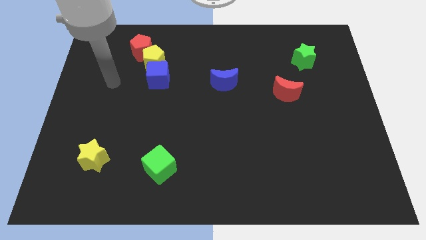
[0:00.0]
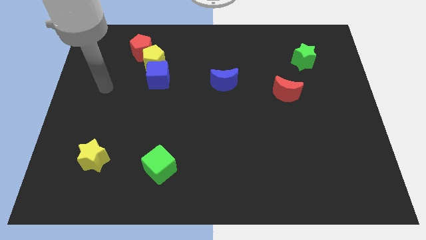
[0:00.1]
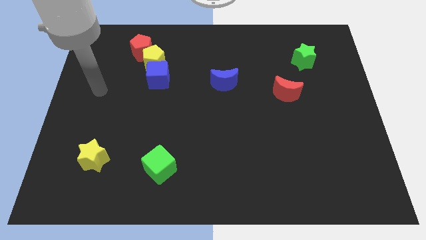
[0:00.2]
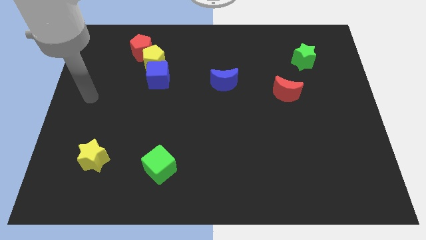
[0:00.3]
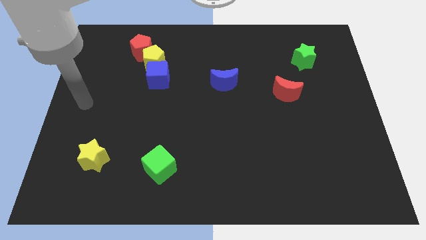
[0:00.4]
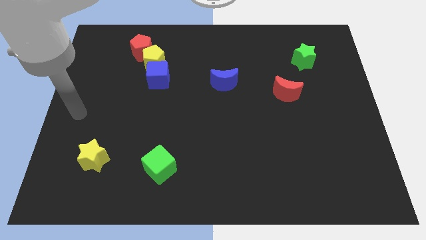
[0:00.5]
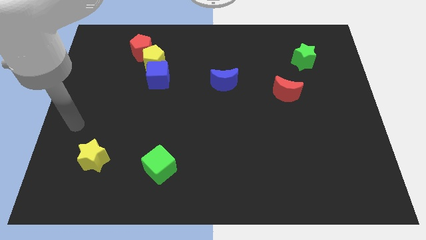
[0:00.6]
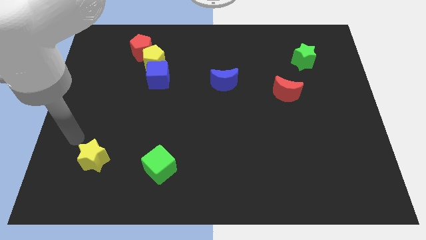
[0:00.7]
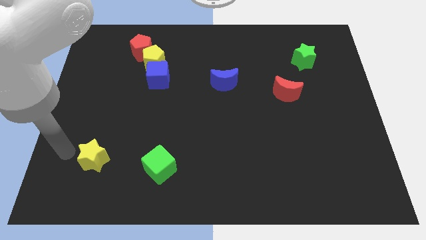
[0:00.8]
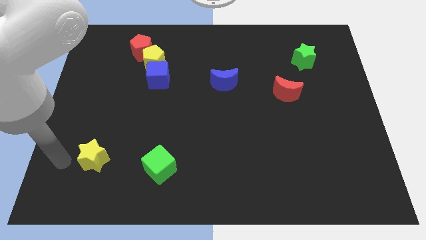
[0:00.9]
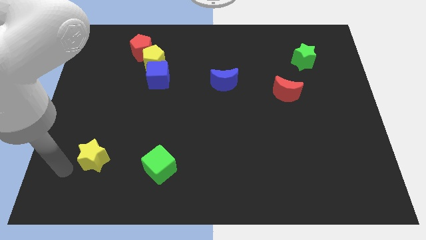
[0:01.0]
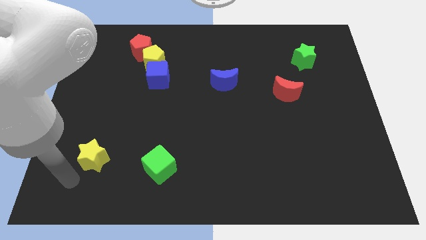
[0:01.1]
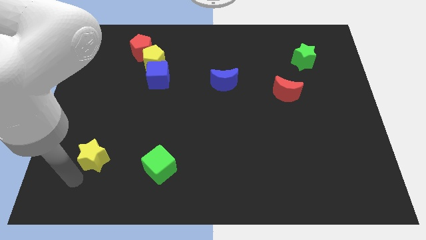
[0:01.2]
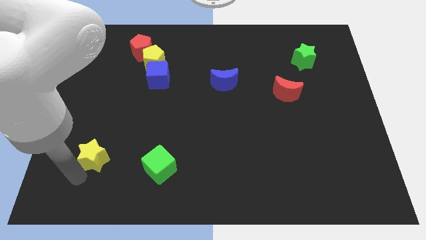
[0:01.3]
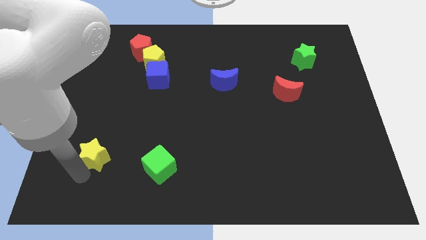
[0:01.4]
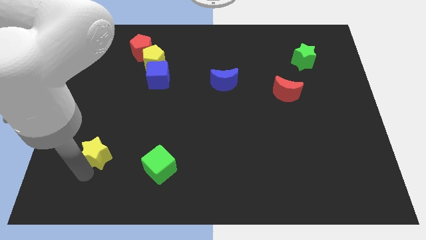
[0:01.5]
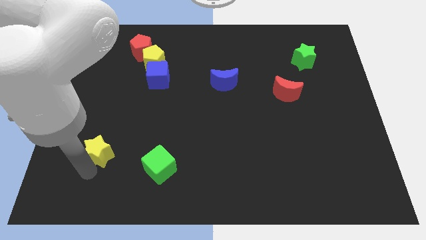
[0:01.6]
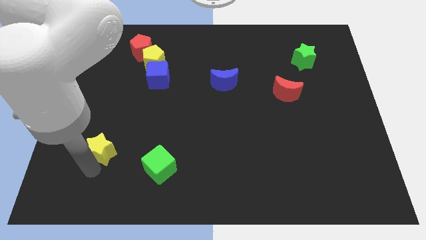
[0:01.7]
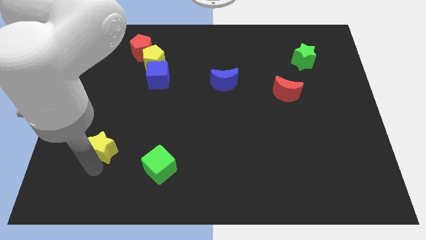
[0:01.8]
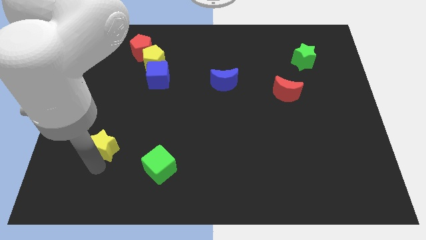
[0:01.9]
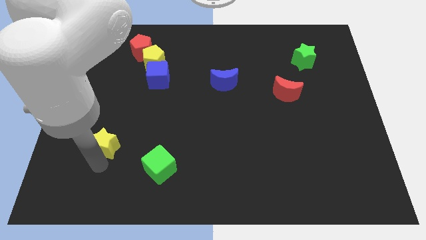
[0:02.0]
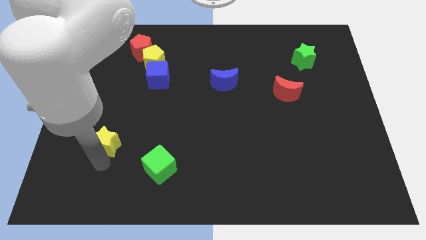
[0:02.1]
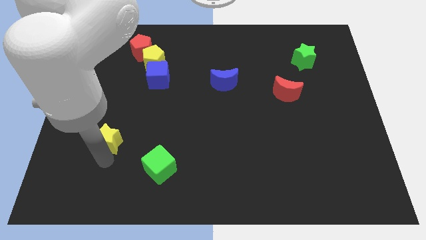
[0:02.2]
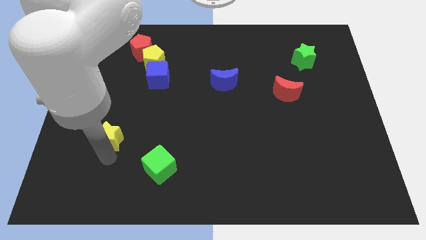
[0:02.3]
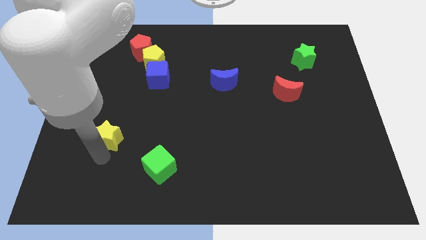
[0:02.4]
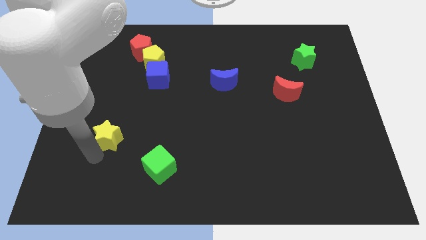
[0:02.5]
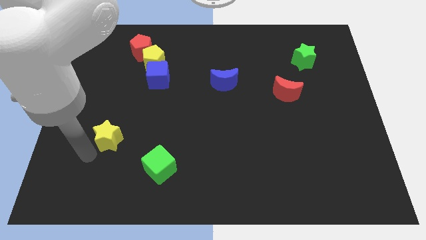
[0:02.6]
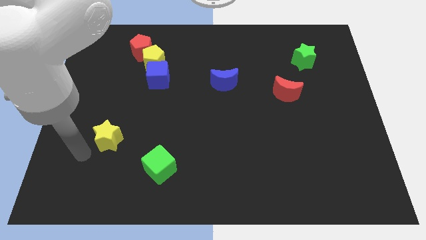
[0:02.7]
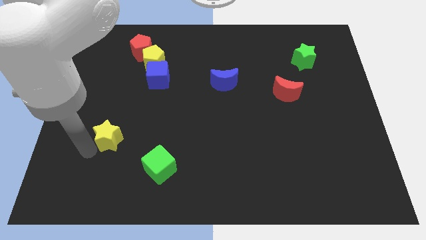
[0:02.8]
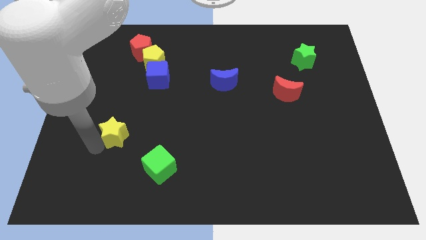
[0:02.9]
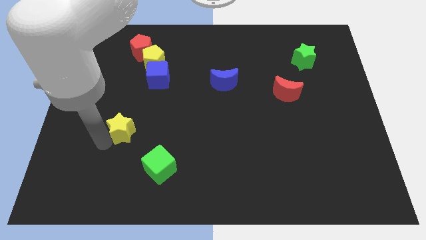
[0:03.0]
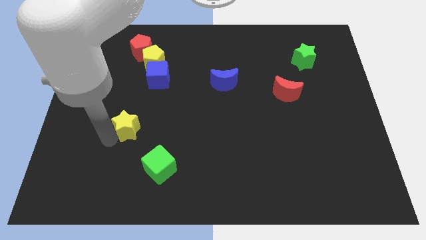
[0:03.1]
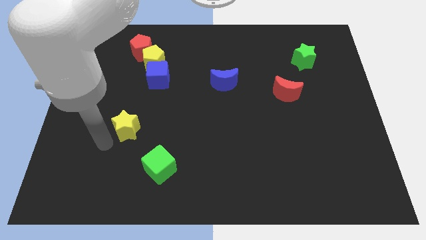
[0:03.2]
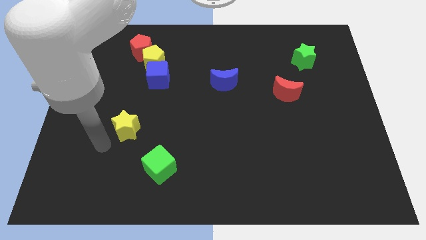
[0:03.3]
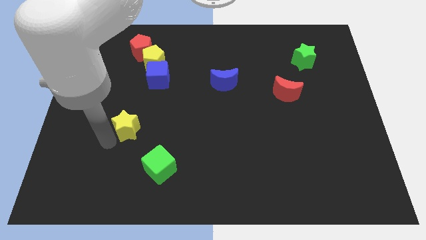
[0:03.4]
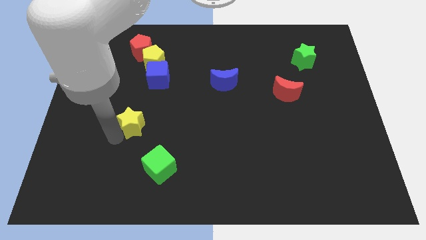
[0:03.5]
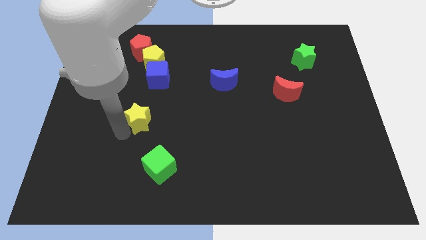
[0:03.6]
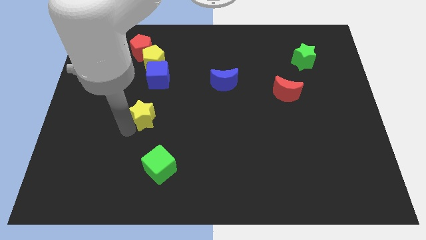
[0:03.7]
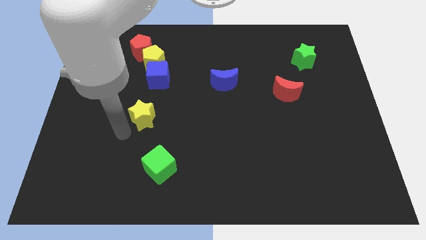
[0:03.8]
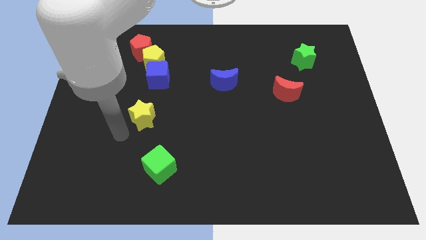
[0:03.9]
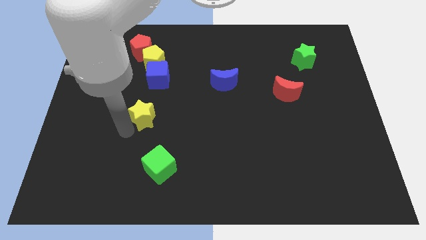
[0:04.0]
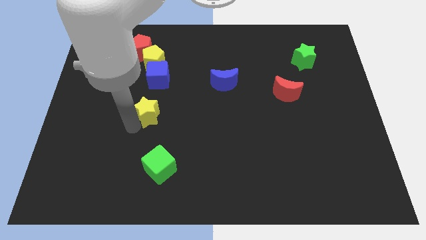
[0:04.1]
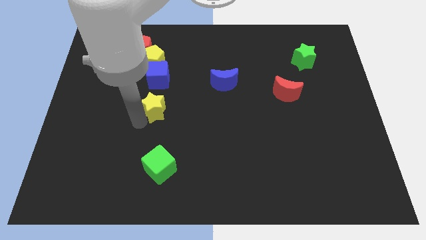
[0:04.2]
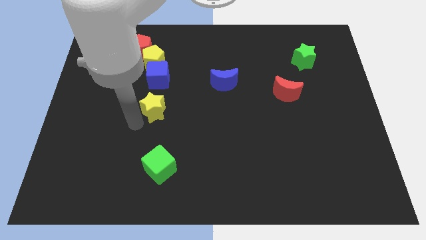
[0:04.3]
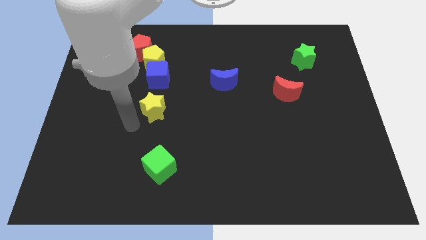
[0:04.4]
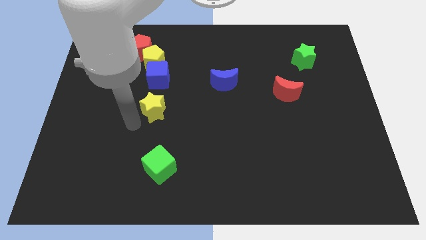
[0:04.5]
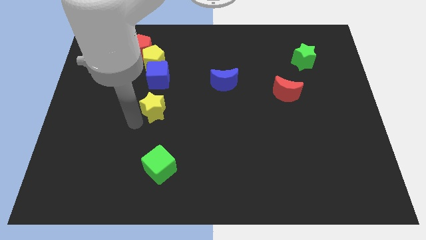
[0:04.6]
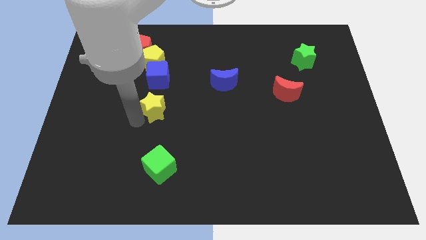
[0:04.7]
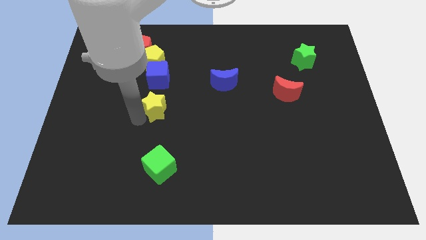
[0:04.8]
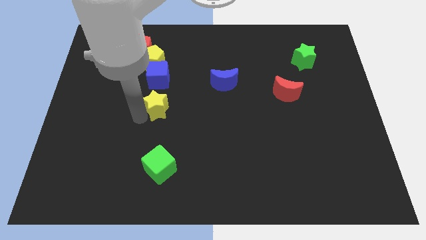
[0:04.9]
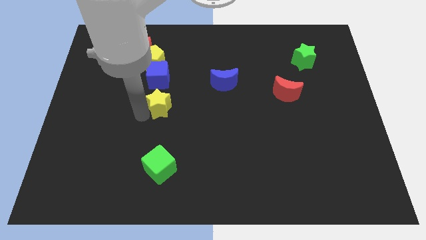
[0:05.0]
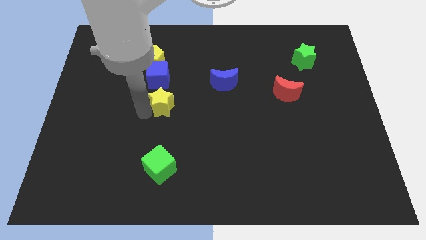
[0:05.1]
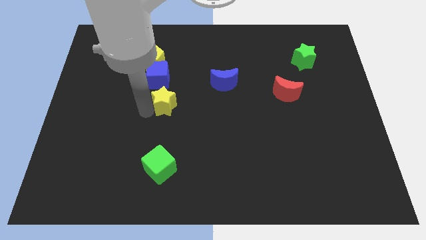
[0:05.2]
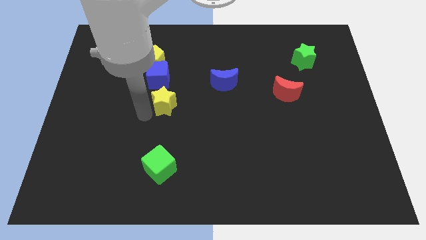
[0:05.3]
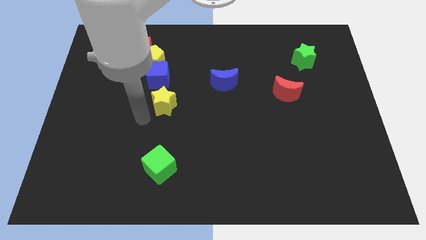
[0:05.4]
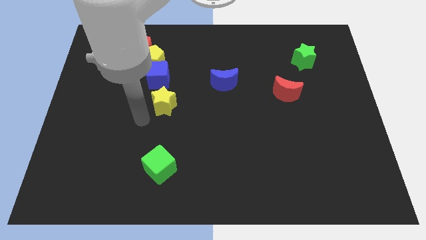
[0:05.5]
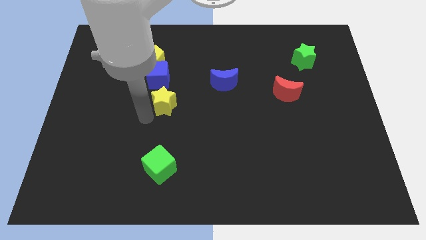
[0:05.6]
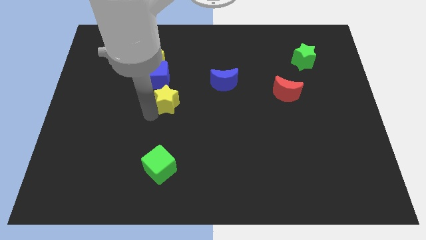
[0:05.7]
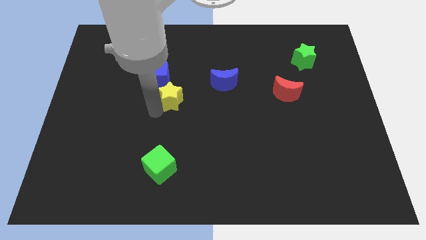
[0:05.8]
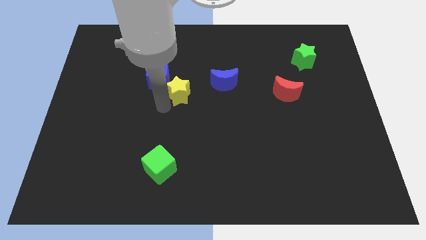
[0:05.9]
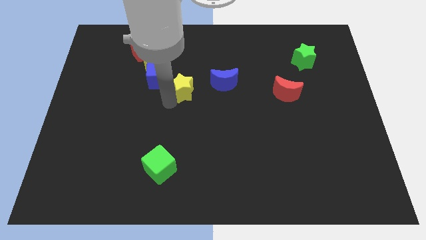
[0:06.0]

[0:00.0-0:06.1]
slide the yellow star to the right side of the blue cube

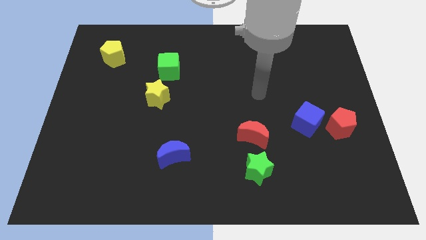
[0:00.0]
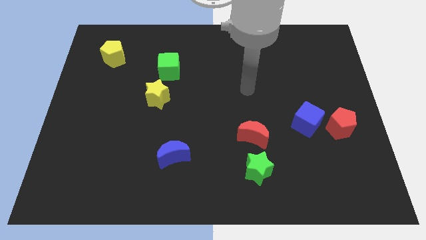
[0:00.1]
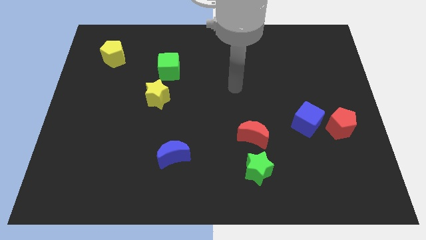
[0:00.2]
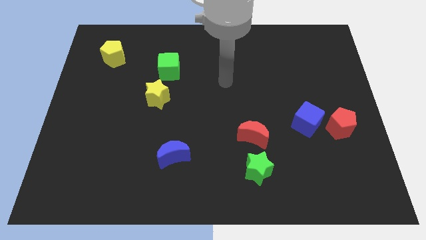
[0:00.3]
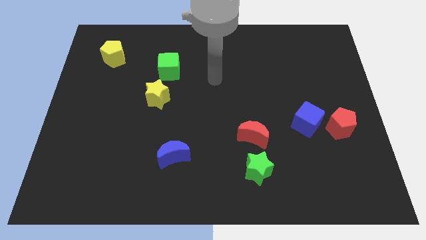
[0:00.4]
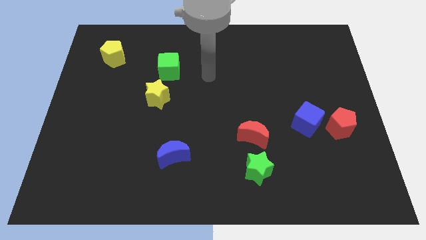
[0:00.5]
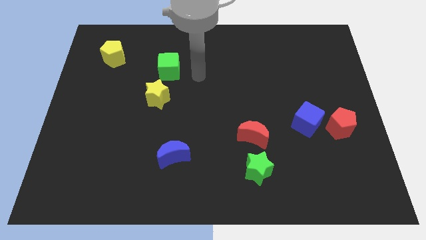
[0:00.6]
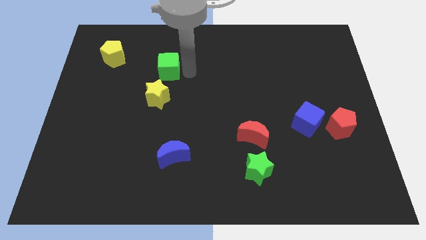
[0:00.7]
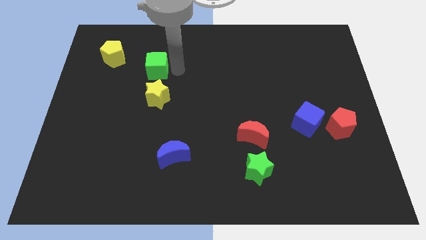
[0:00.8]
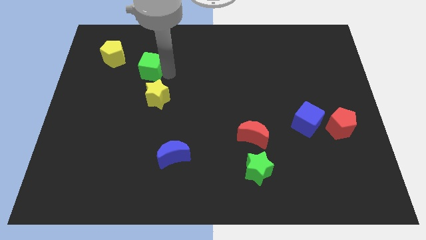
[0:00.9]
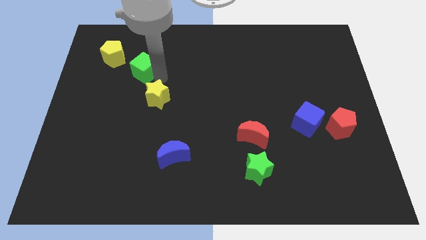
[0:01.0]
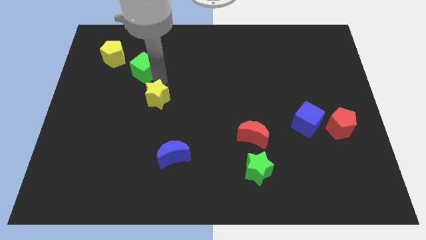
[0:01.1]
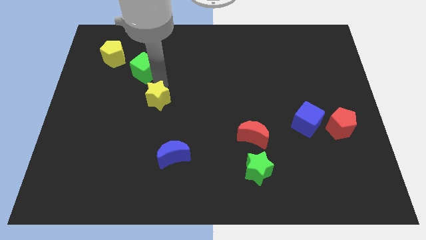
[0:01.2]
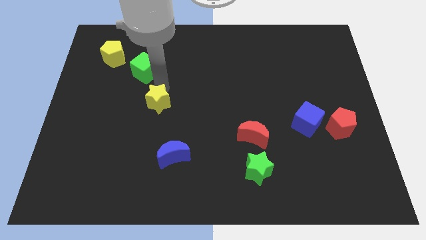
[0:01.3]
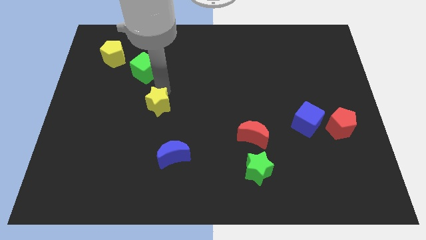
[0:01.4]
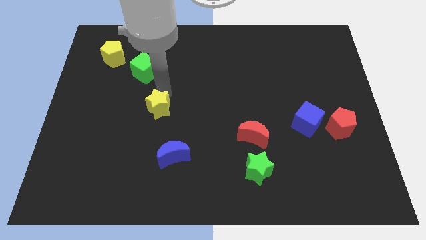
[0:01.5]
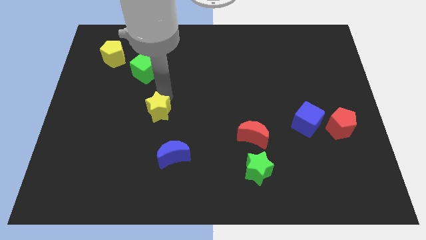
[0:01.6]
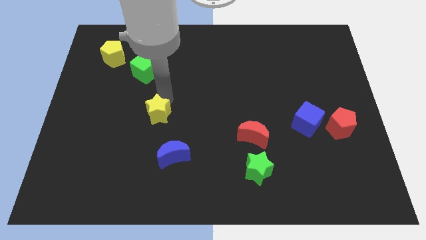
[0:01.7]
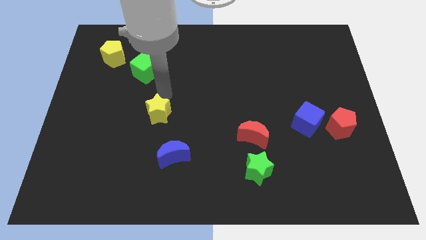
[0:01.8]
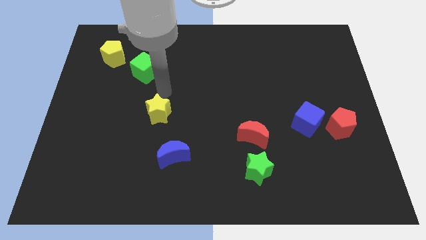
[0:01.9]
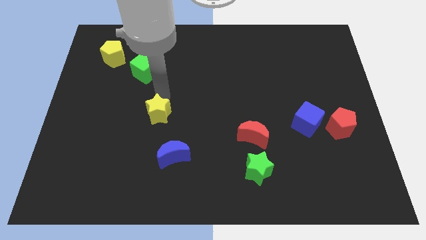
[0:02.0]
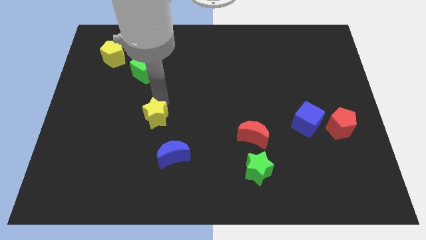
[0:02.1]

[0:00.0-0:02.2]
slide the yellow star to the top left of the blue moon
